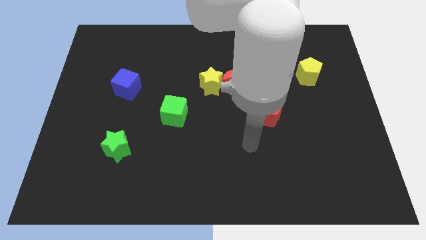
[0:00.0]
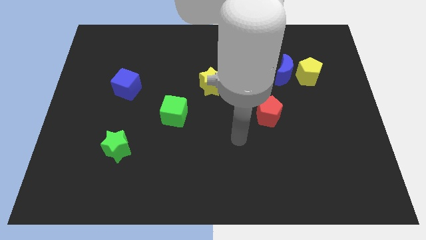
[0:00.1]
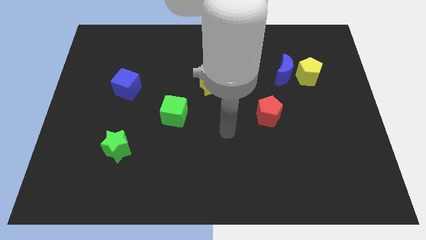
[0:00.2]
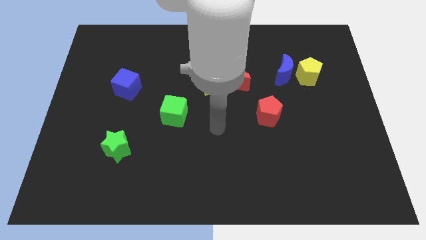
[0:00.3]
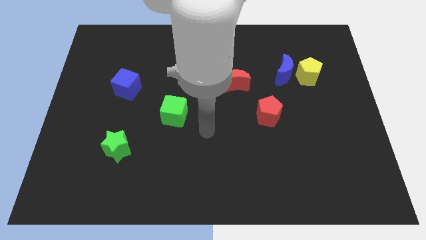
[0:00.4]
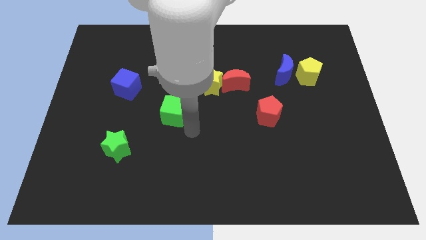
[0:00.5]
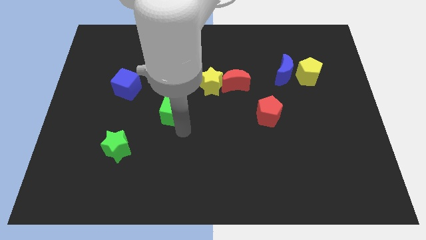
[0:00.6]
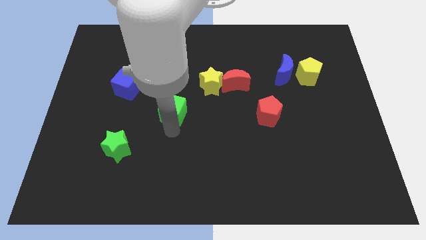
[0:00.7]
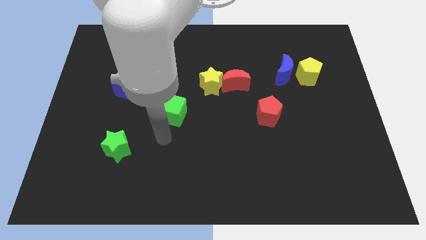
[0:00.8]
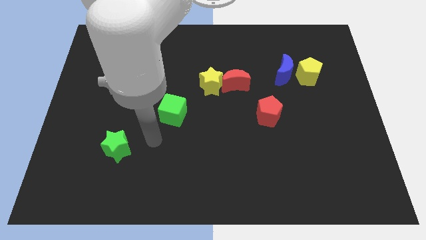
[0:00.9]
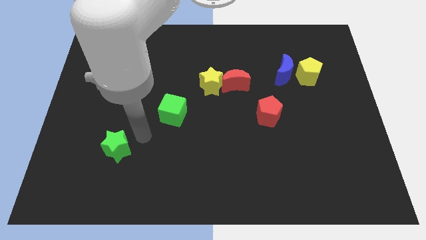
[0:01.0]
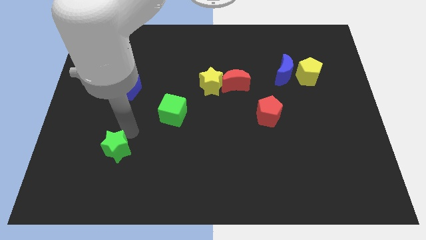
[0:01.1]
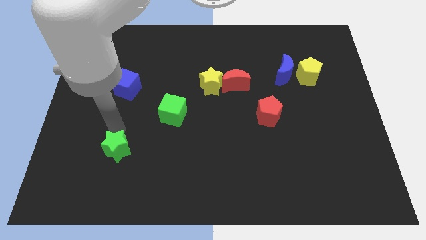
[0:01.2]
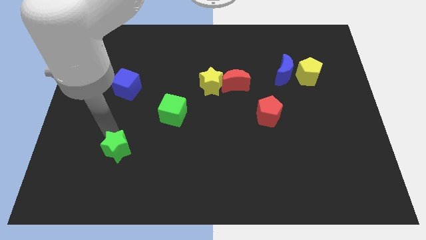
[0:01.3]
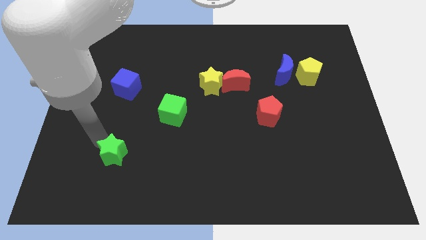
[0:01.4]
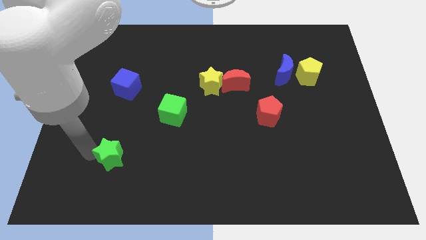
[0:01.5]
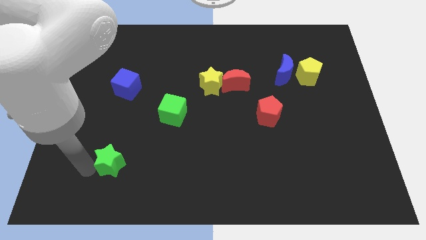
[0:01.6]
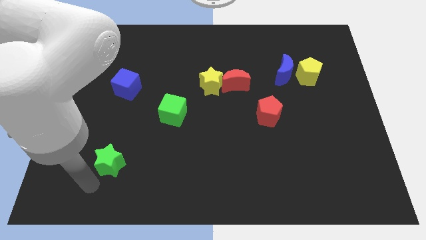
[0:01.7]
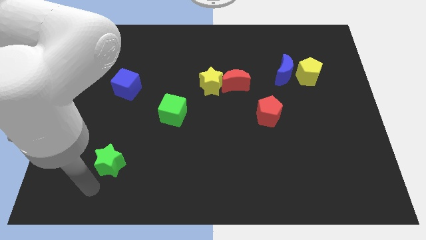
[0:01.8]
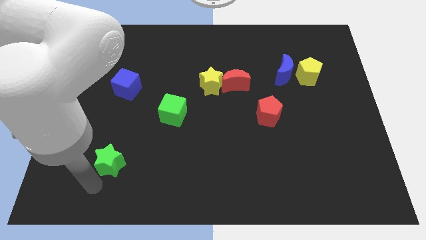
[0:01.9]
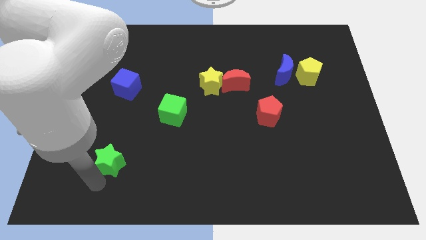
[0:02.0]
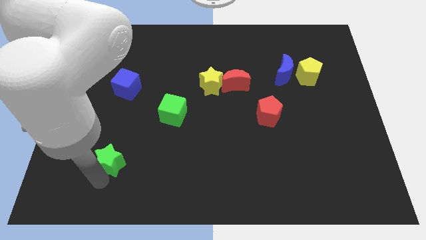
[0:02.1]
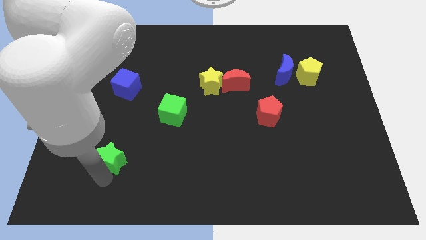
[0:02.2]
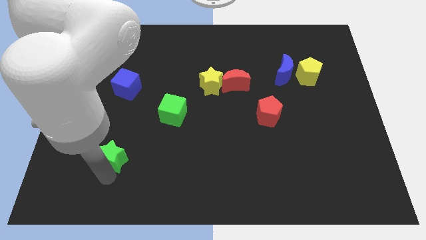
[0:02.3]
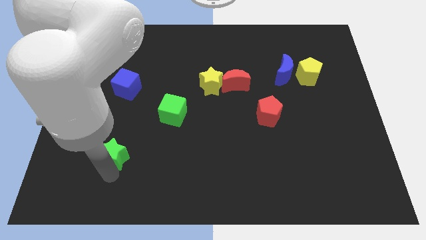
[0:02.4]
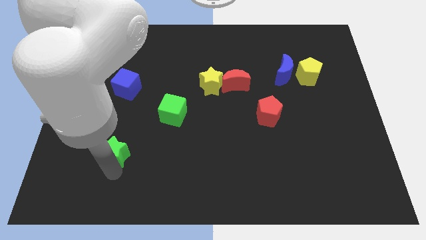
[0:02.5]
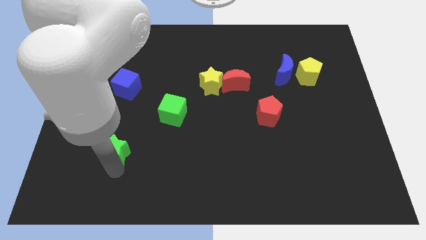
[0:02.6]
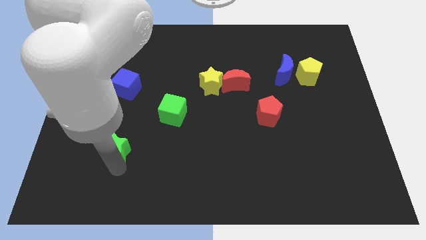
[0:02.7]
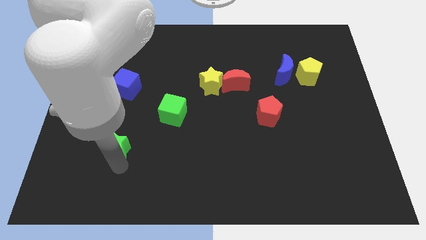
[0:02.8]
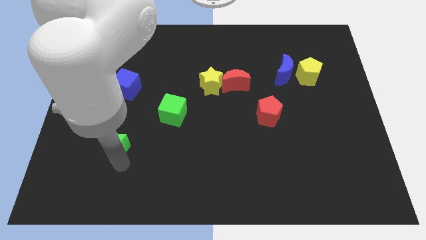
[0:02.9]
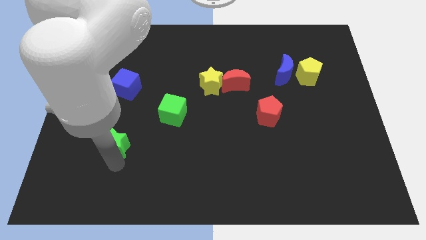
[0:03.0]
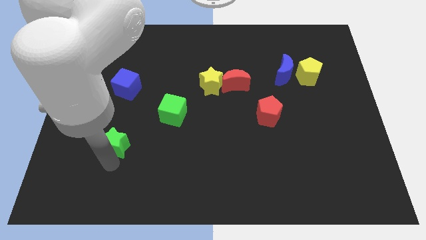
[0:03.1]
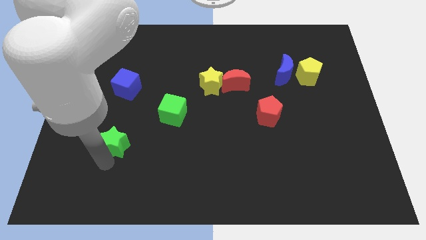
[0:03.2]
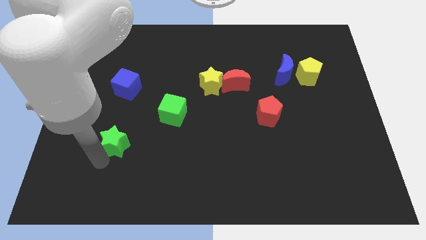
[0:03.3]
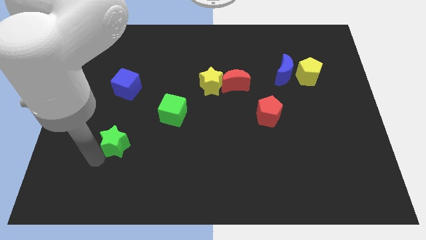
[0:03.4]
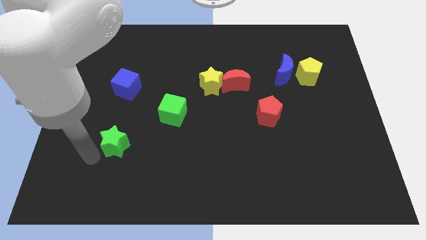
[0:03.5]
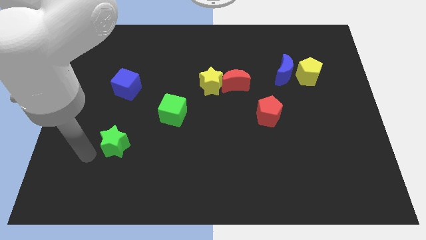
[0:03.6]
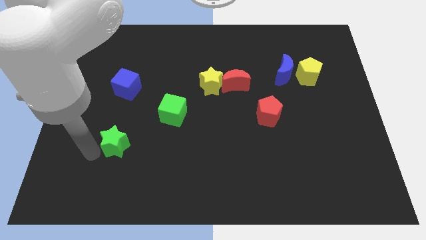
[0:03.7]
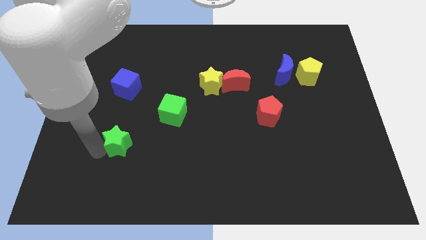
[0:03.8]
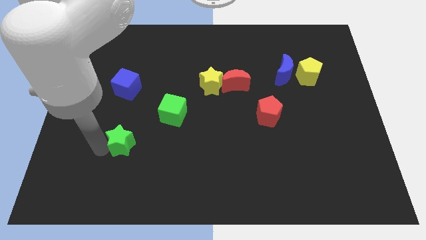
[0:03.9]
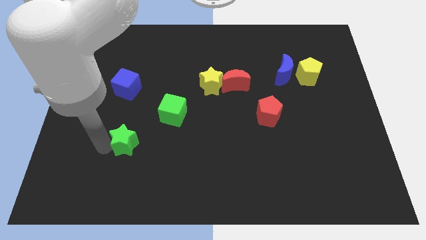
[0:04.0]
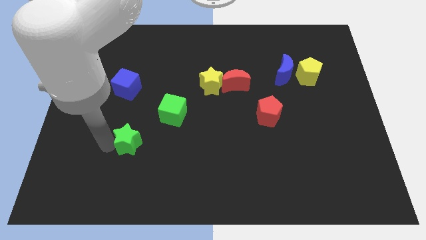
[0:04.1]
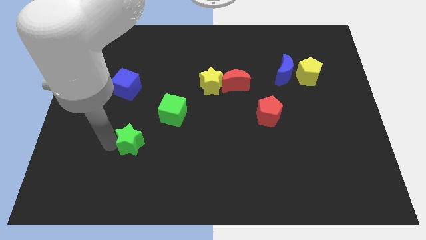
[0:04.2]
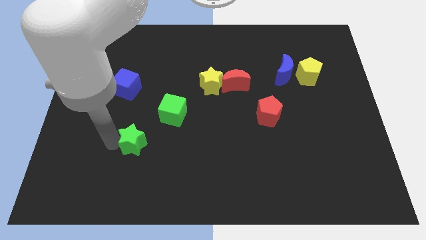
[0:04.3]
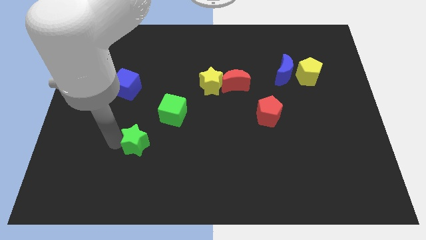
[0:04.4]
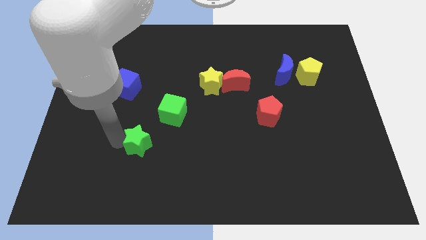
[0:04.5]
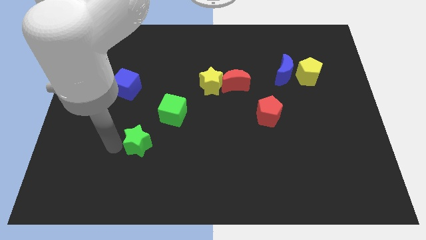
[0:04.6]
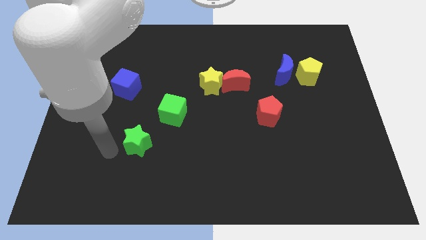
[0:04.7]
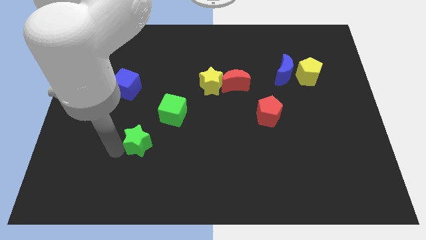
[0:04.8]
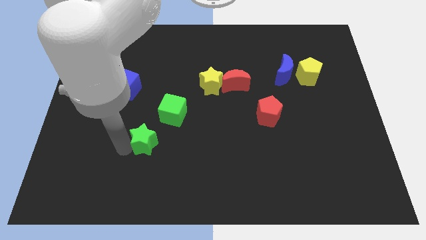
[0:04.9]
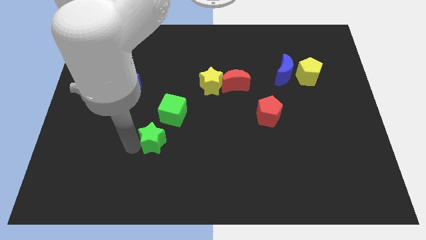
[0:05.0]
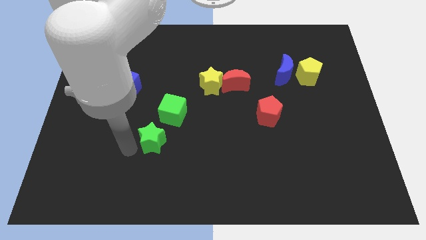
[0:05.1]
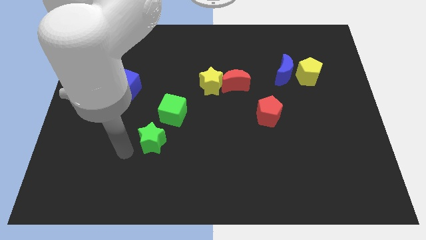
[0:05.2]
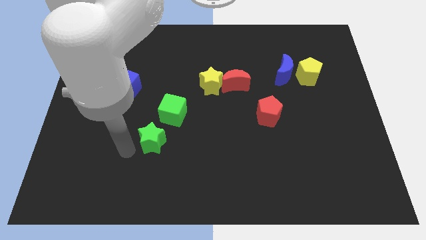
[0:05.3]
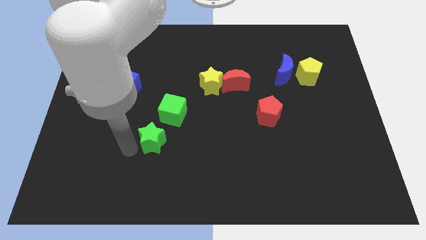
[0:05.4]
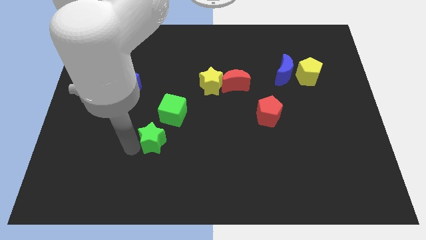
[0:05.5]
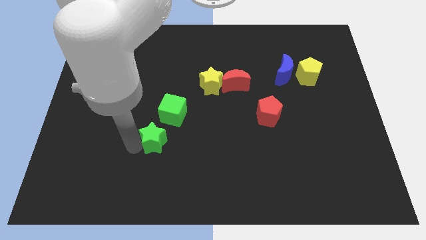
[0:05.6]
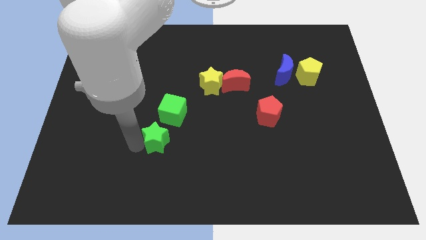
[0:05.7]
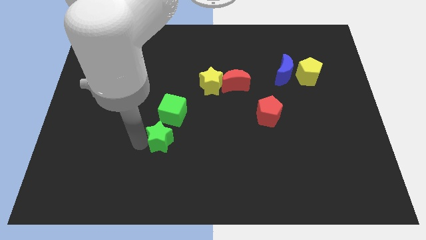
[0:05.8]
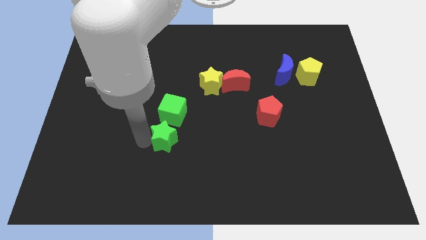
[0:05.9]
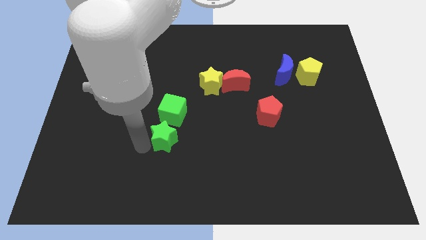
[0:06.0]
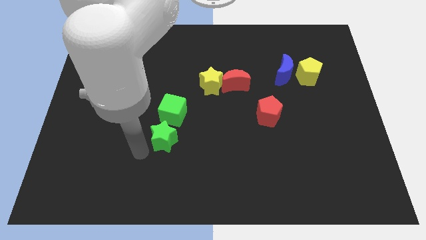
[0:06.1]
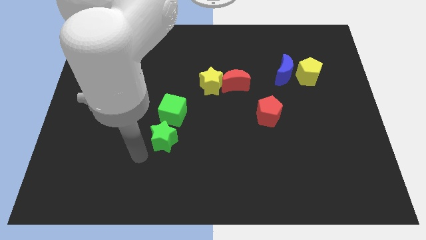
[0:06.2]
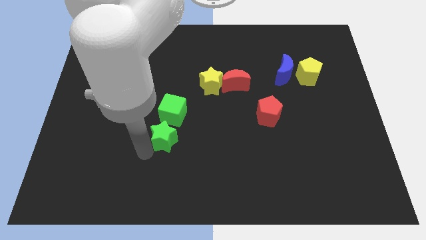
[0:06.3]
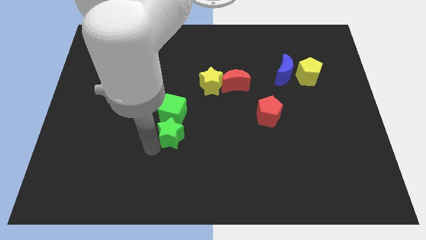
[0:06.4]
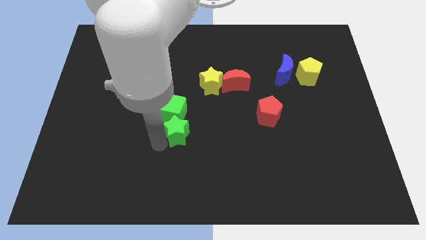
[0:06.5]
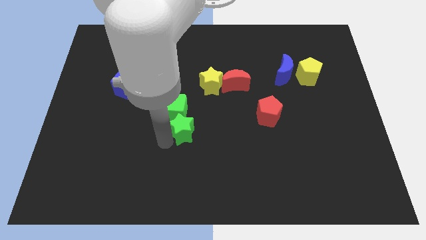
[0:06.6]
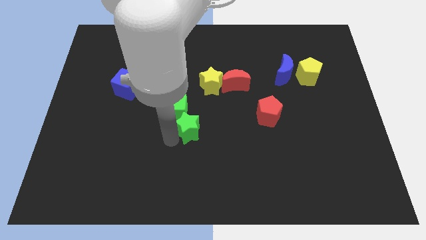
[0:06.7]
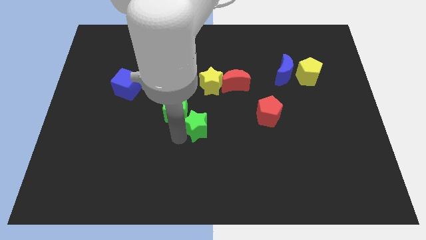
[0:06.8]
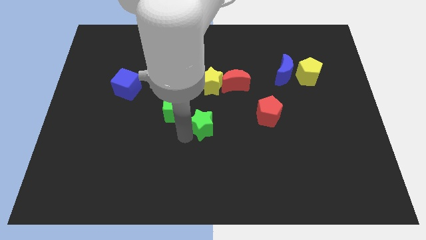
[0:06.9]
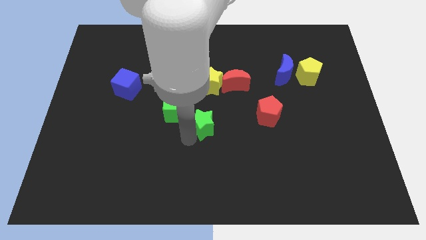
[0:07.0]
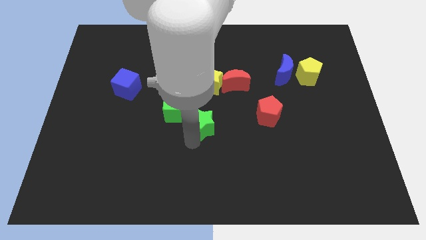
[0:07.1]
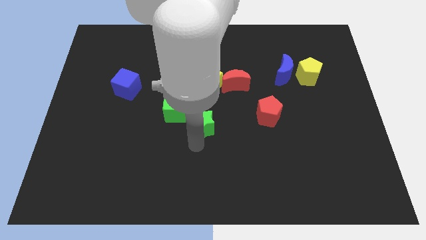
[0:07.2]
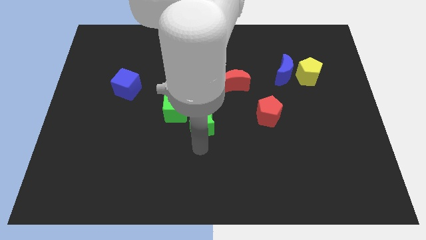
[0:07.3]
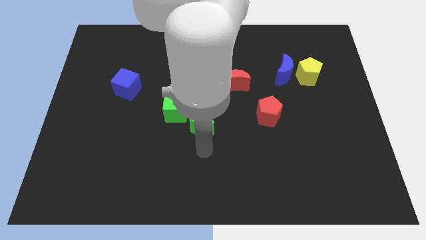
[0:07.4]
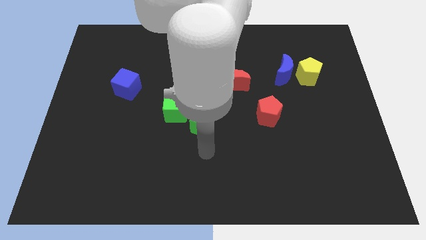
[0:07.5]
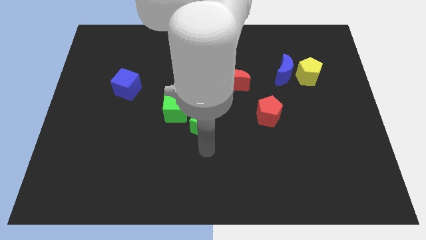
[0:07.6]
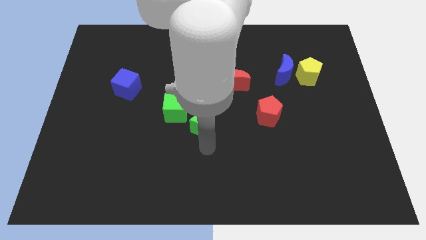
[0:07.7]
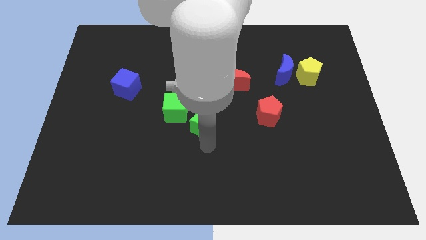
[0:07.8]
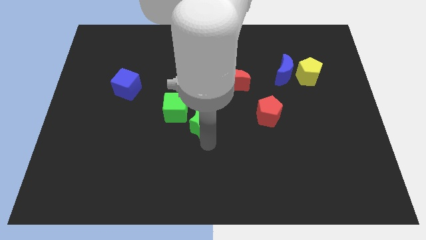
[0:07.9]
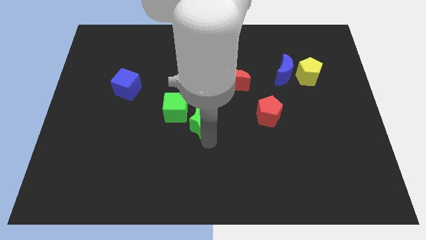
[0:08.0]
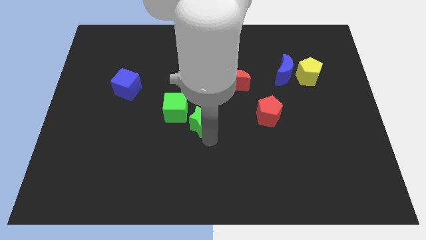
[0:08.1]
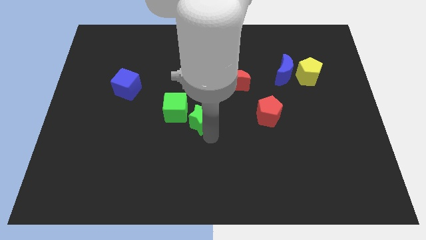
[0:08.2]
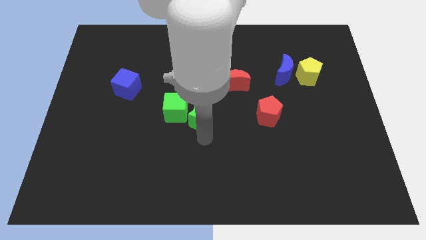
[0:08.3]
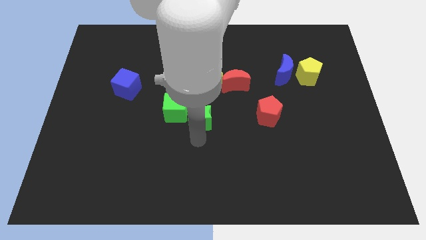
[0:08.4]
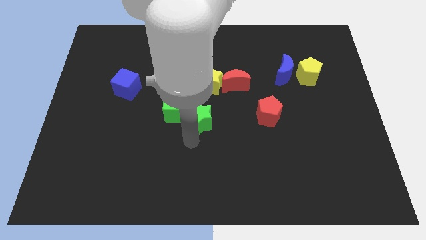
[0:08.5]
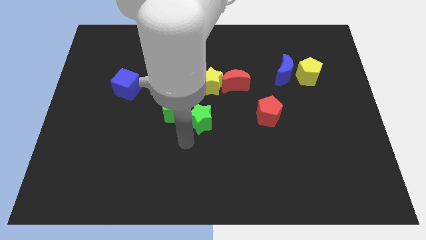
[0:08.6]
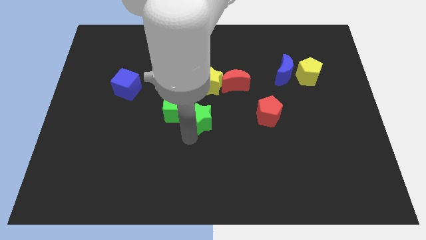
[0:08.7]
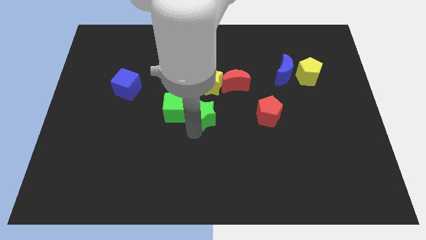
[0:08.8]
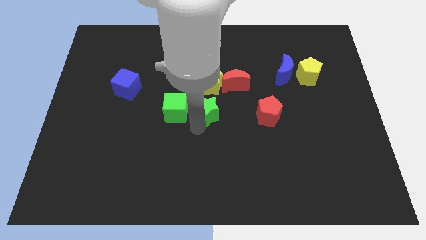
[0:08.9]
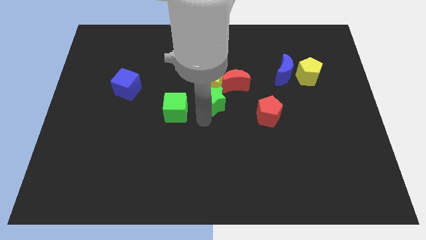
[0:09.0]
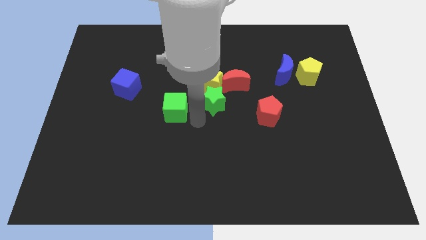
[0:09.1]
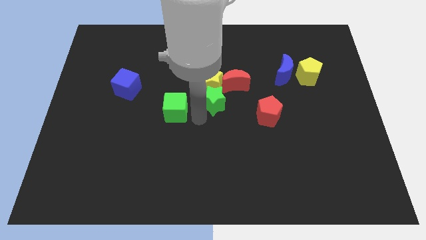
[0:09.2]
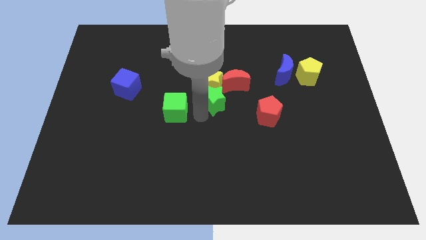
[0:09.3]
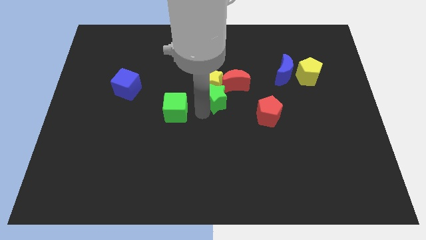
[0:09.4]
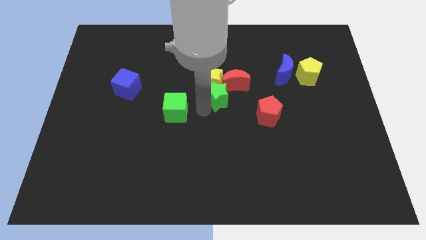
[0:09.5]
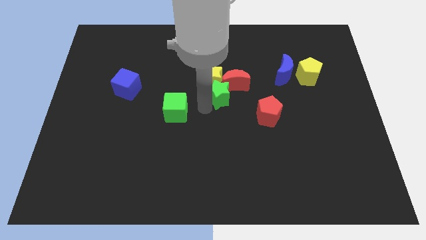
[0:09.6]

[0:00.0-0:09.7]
slide the green star close to the red moon
